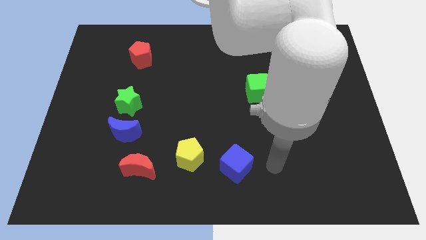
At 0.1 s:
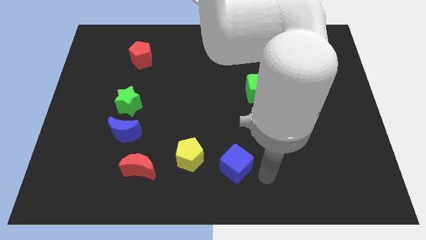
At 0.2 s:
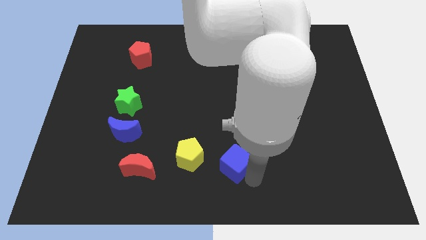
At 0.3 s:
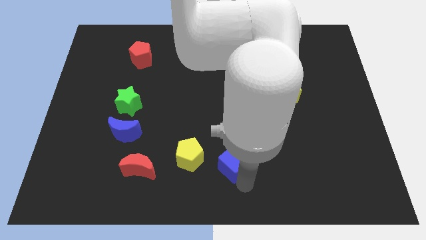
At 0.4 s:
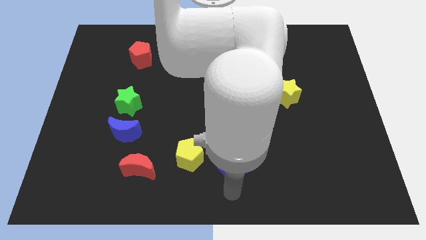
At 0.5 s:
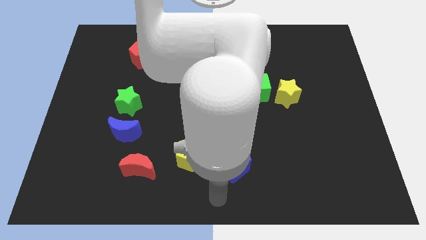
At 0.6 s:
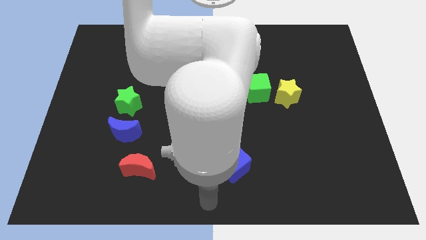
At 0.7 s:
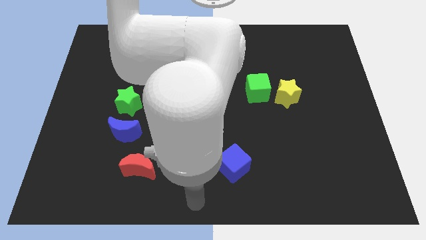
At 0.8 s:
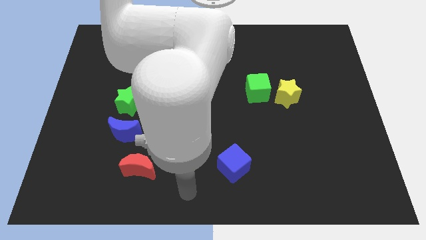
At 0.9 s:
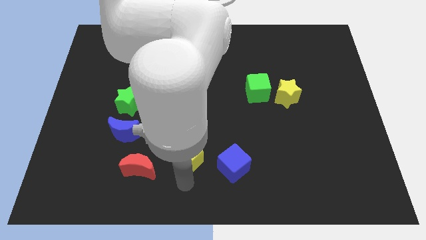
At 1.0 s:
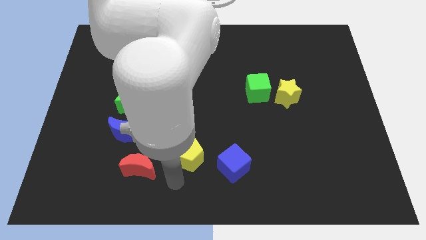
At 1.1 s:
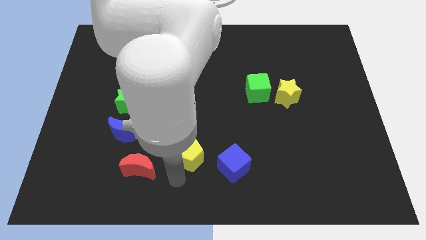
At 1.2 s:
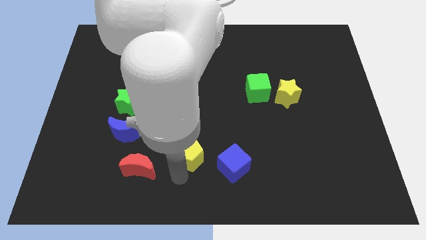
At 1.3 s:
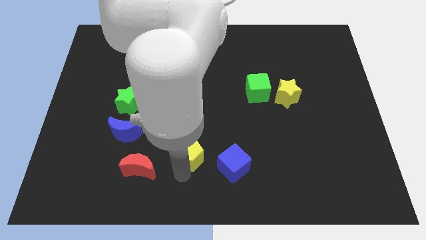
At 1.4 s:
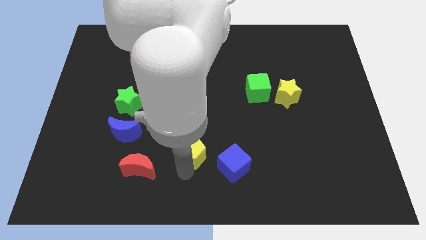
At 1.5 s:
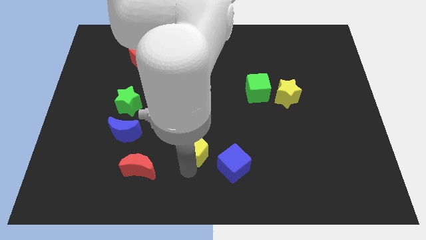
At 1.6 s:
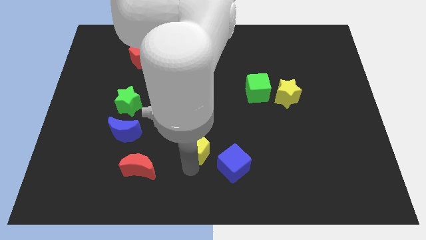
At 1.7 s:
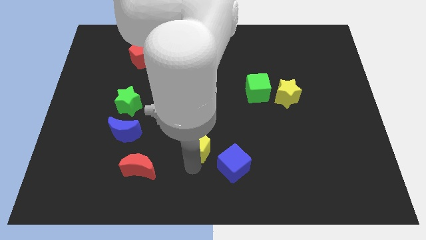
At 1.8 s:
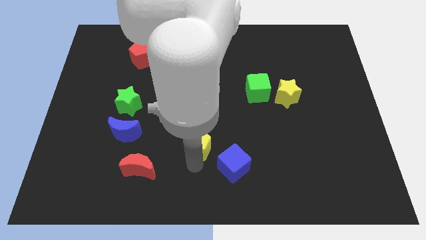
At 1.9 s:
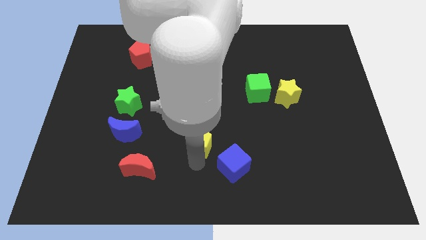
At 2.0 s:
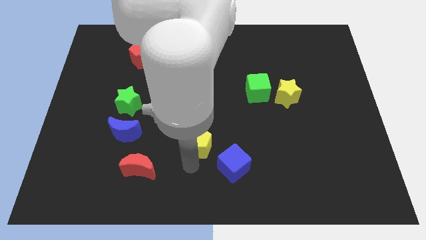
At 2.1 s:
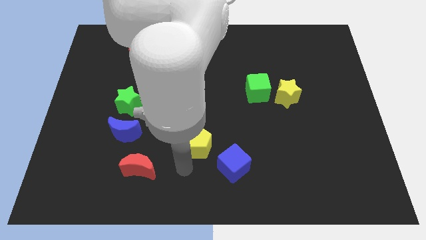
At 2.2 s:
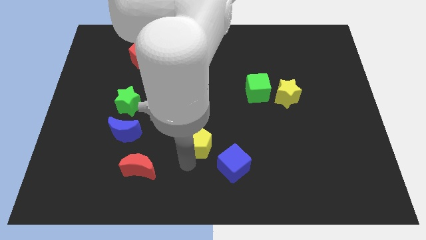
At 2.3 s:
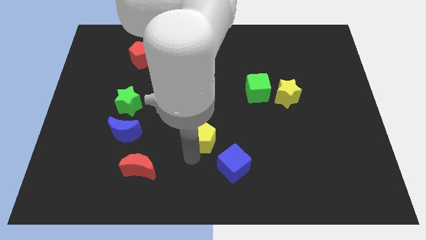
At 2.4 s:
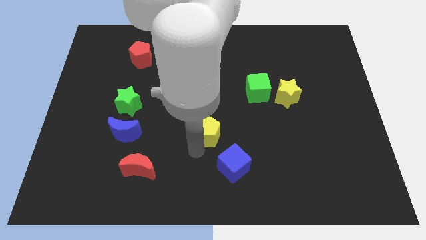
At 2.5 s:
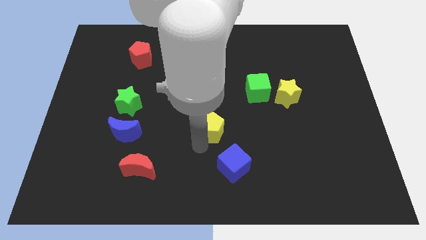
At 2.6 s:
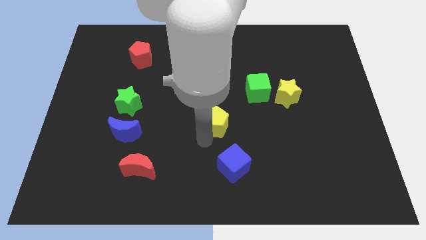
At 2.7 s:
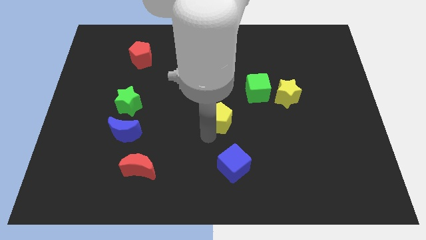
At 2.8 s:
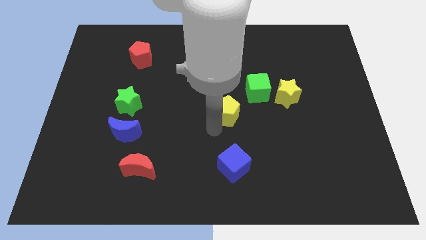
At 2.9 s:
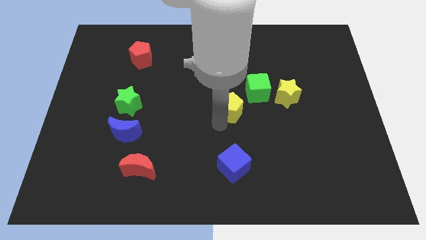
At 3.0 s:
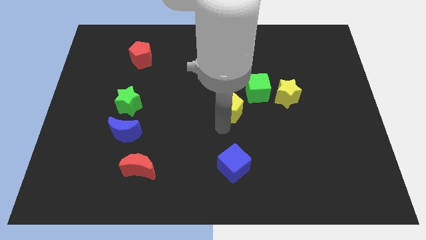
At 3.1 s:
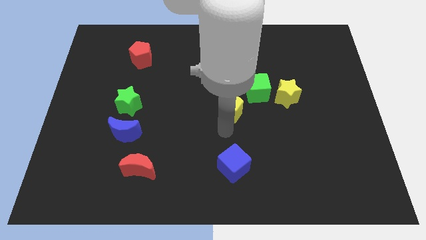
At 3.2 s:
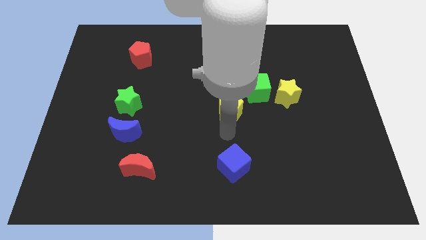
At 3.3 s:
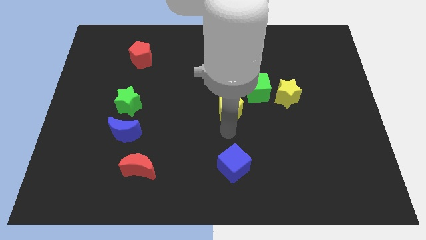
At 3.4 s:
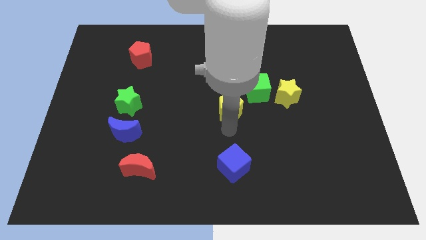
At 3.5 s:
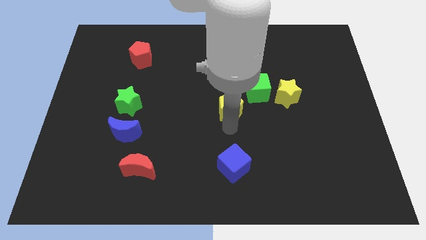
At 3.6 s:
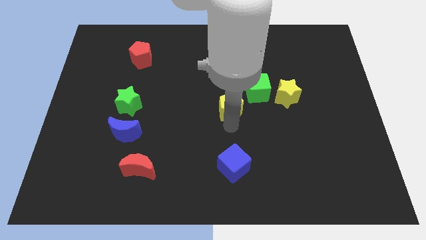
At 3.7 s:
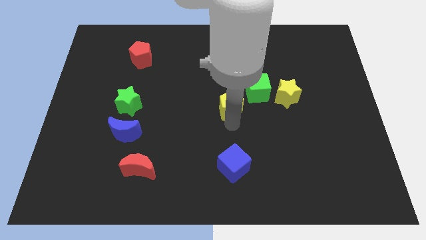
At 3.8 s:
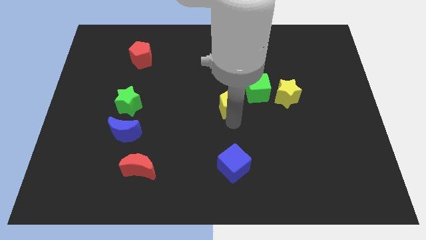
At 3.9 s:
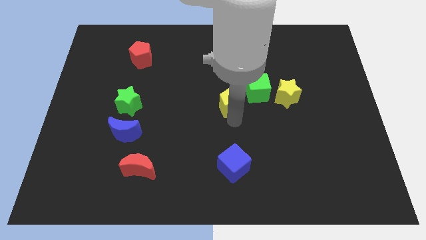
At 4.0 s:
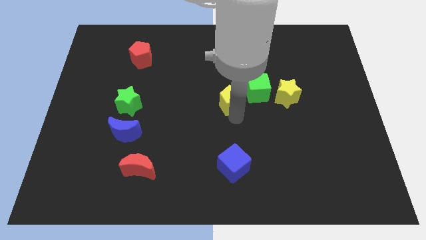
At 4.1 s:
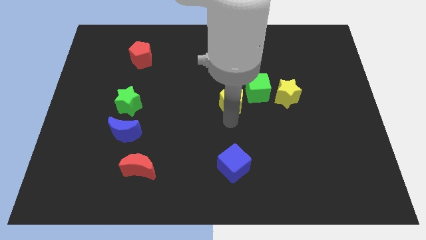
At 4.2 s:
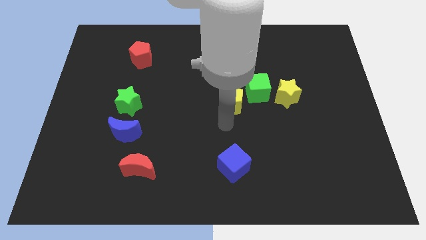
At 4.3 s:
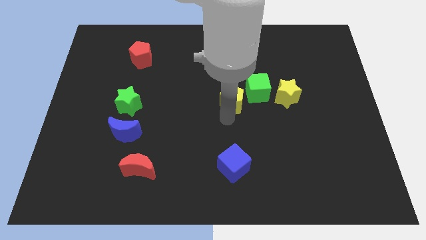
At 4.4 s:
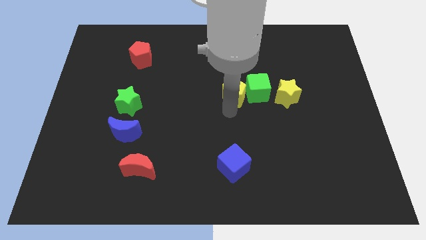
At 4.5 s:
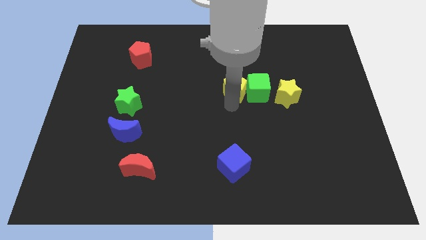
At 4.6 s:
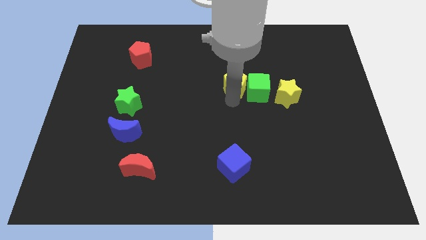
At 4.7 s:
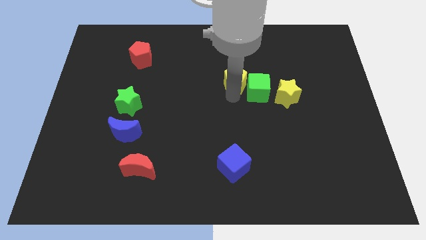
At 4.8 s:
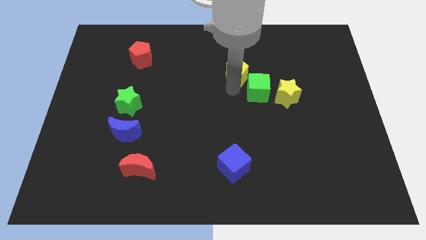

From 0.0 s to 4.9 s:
slide the yellow pentagon to the top side of the green cube

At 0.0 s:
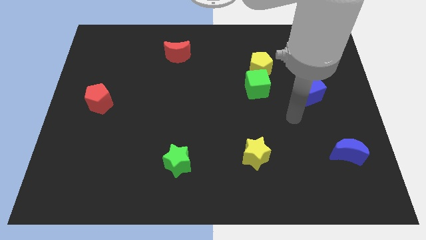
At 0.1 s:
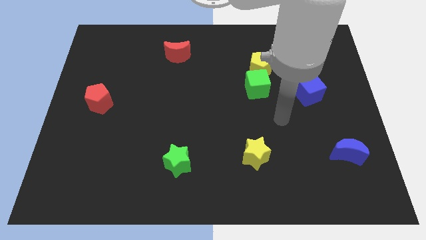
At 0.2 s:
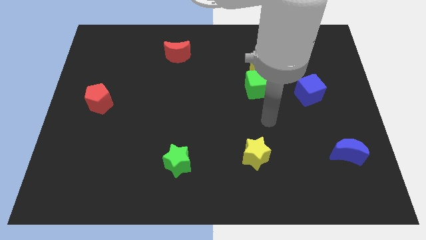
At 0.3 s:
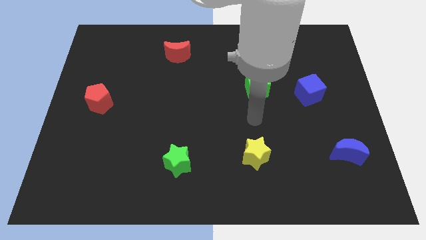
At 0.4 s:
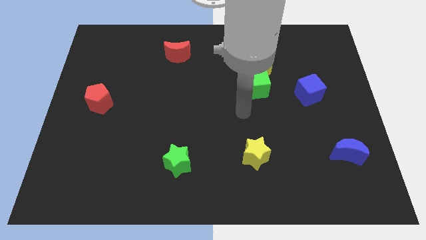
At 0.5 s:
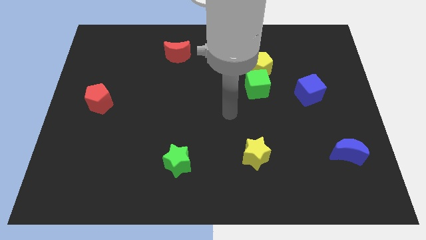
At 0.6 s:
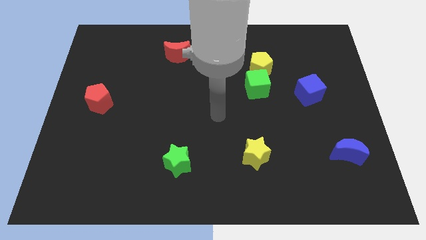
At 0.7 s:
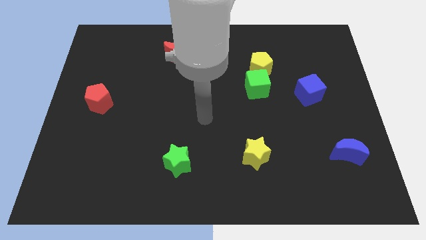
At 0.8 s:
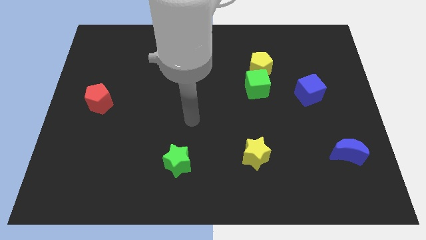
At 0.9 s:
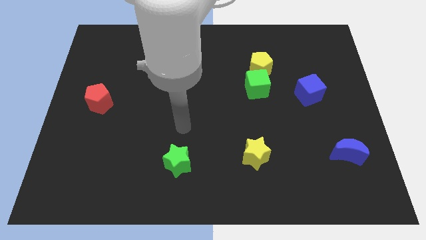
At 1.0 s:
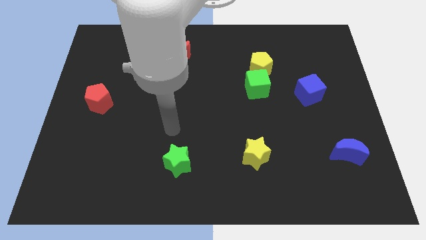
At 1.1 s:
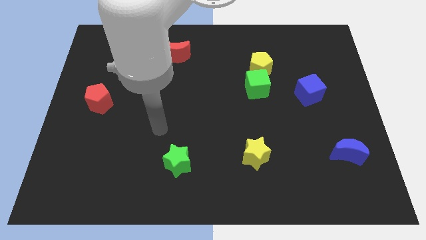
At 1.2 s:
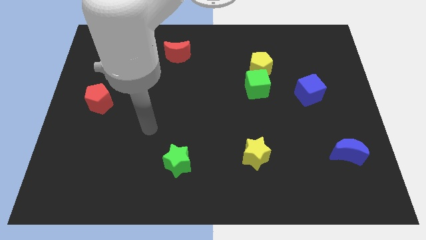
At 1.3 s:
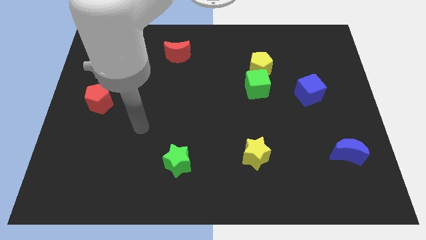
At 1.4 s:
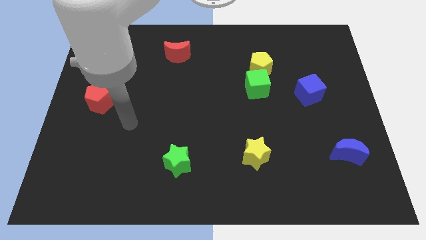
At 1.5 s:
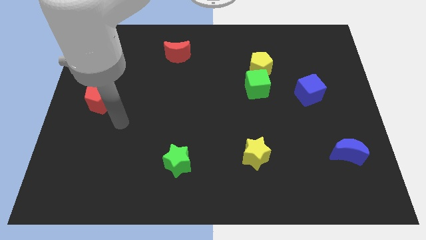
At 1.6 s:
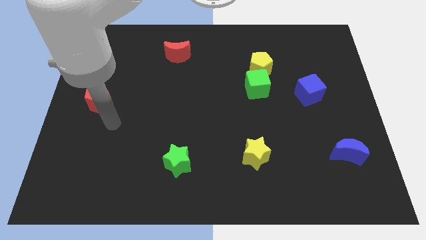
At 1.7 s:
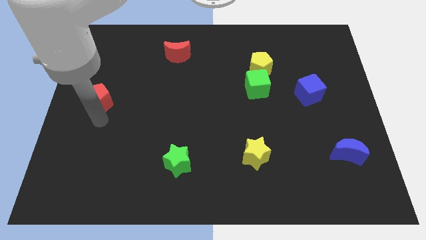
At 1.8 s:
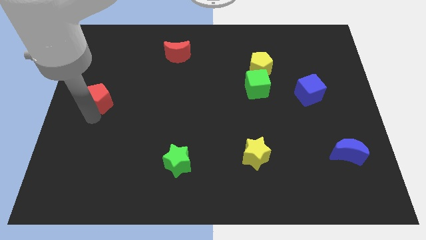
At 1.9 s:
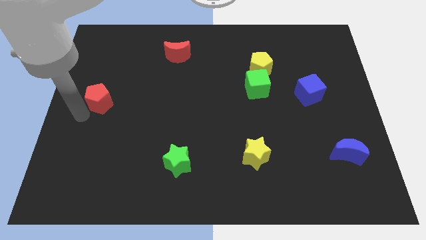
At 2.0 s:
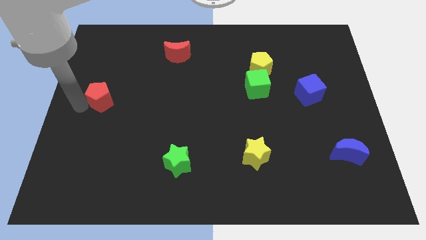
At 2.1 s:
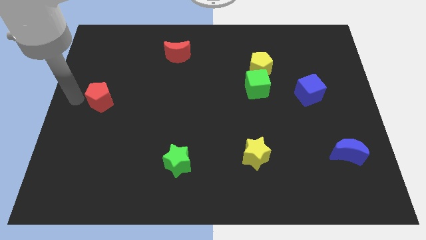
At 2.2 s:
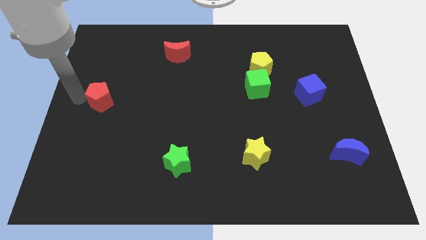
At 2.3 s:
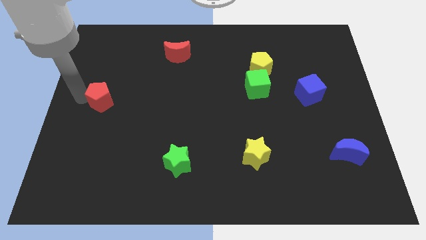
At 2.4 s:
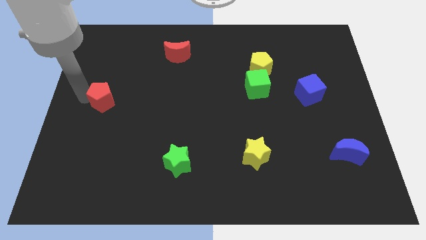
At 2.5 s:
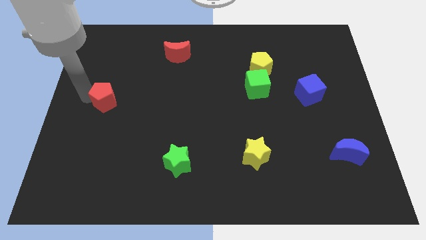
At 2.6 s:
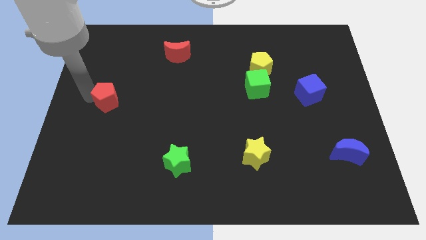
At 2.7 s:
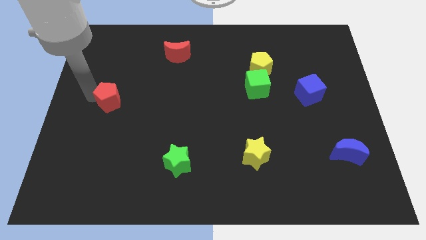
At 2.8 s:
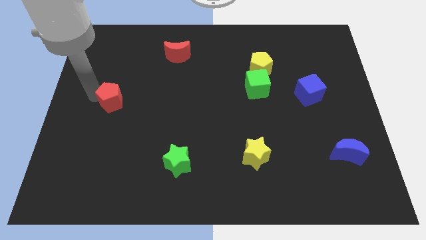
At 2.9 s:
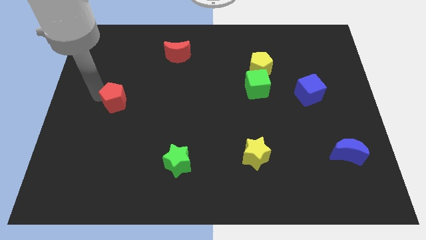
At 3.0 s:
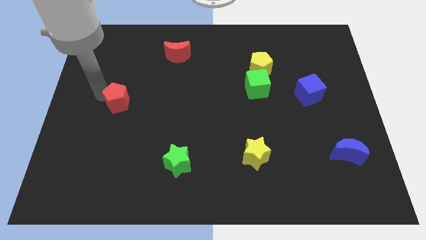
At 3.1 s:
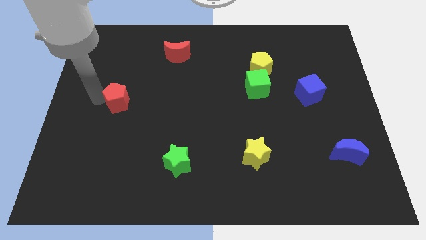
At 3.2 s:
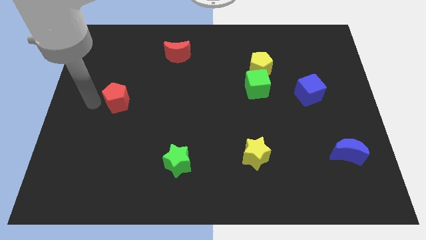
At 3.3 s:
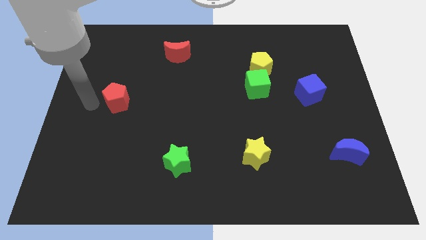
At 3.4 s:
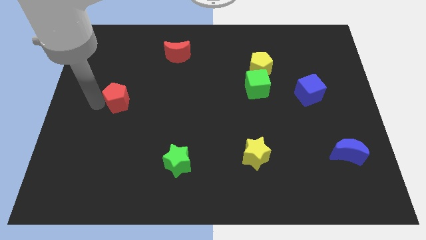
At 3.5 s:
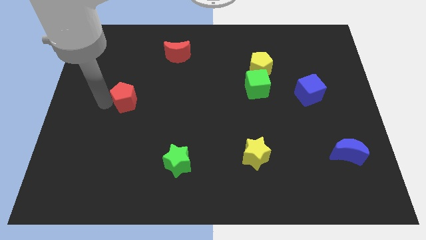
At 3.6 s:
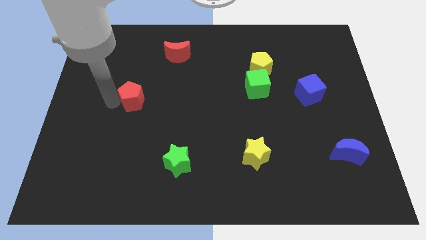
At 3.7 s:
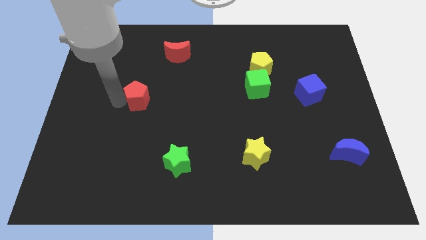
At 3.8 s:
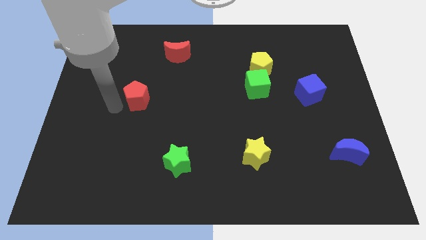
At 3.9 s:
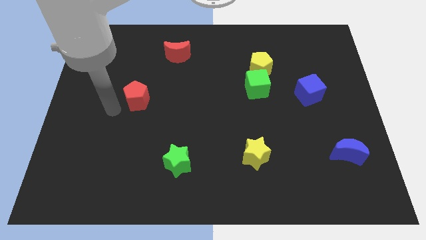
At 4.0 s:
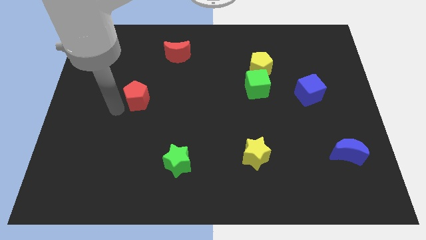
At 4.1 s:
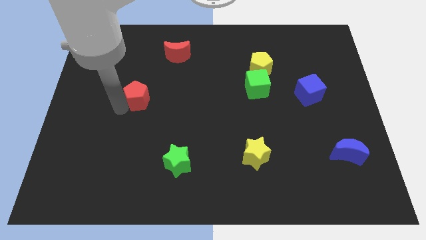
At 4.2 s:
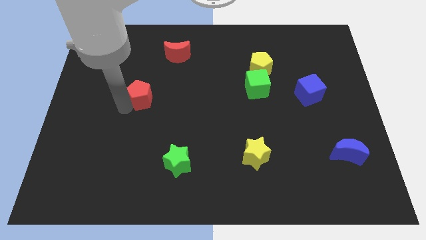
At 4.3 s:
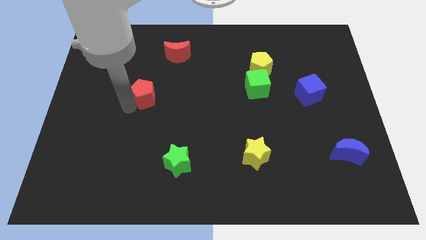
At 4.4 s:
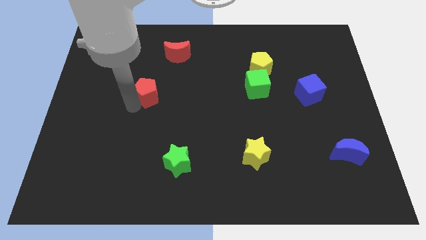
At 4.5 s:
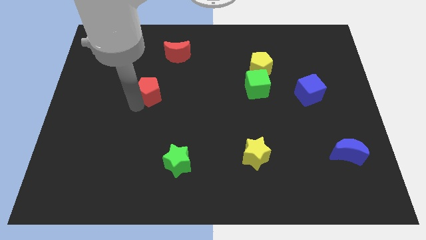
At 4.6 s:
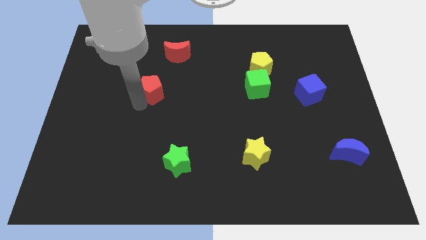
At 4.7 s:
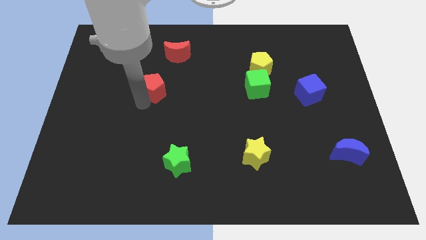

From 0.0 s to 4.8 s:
slide the red pentagon to the bottom of the red moon
